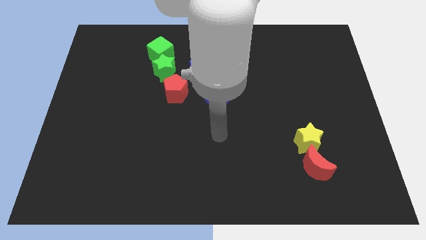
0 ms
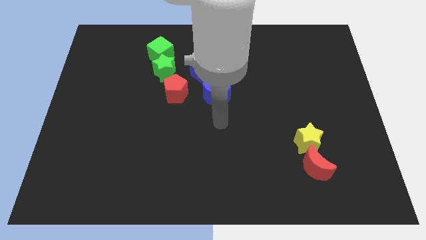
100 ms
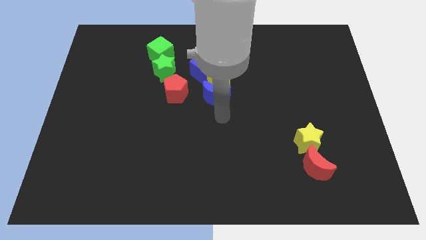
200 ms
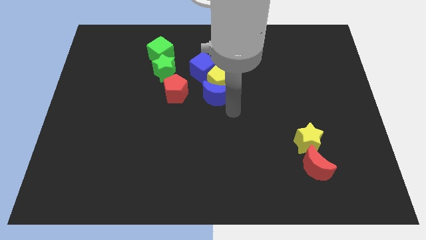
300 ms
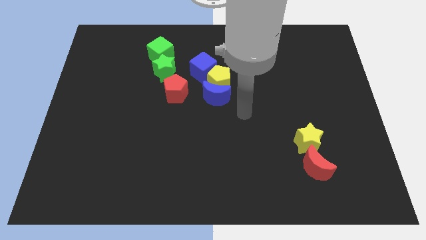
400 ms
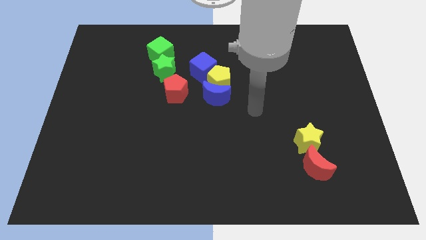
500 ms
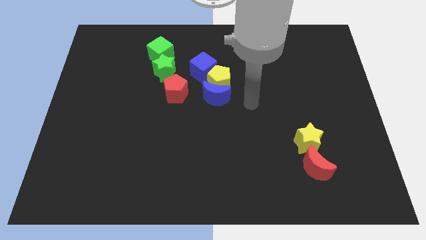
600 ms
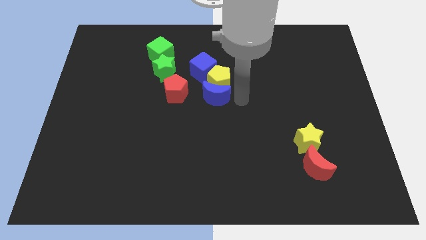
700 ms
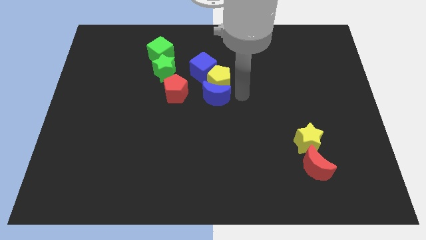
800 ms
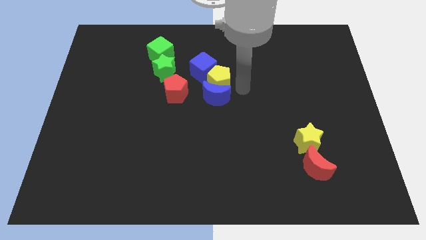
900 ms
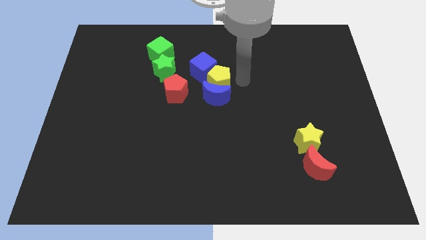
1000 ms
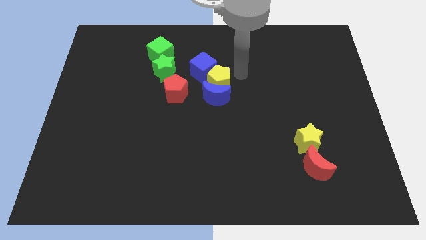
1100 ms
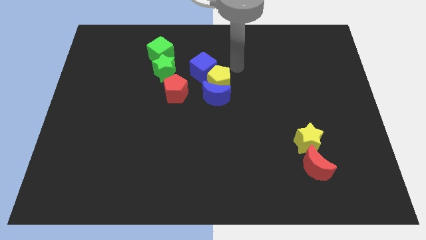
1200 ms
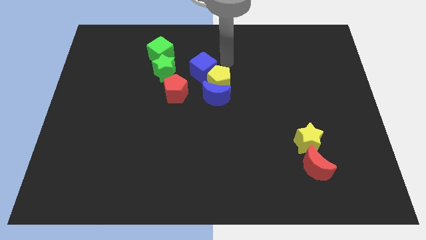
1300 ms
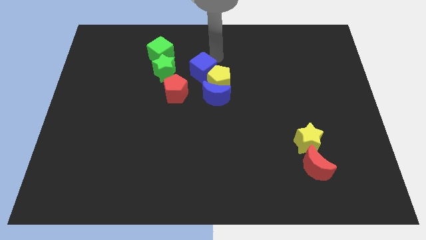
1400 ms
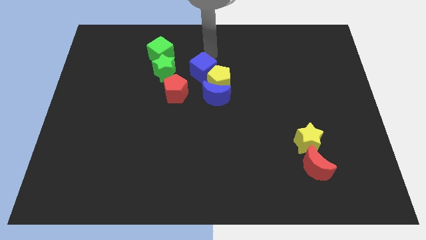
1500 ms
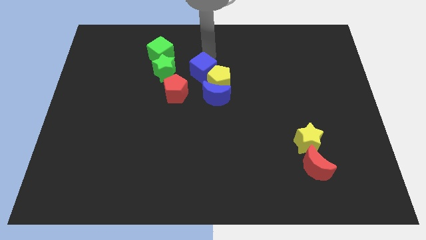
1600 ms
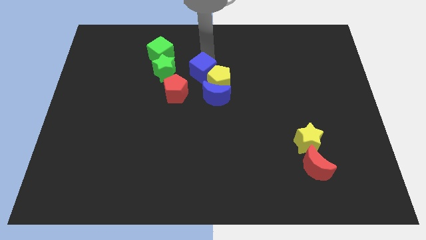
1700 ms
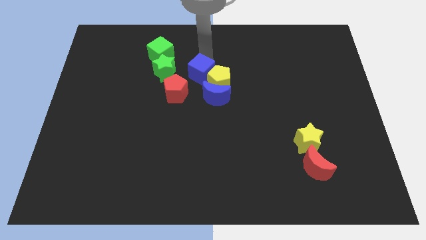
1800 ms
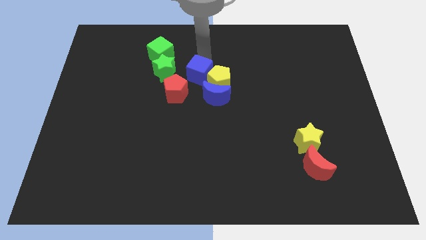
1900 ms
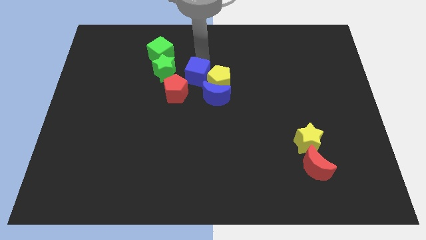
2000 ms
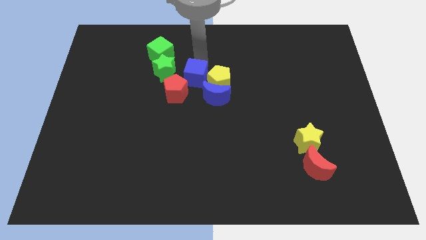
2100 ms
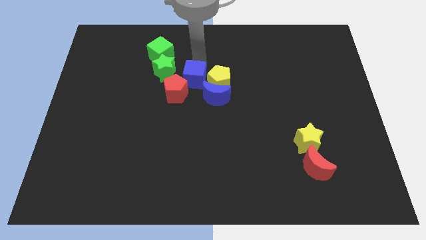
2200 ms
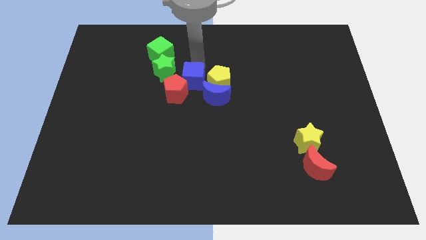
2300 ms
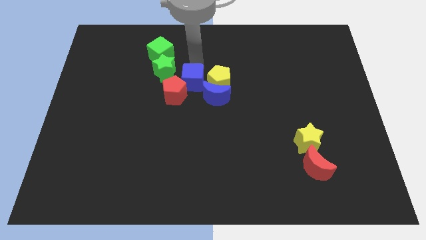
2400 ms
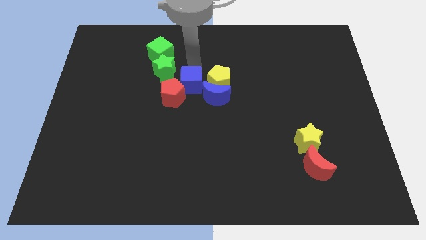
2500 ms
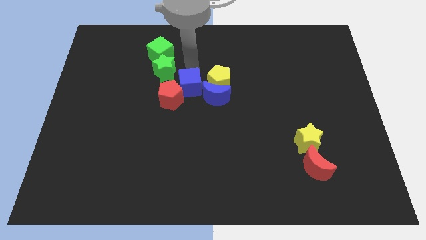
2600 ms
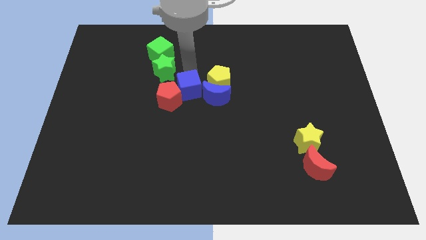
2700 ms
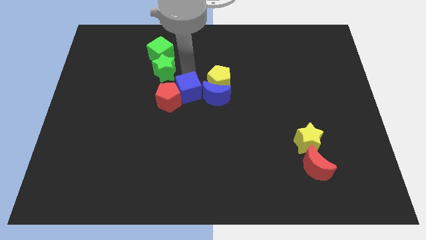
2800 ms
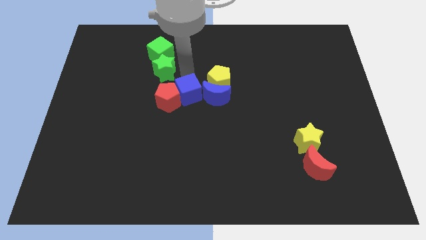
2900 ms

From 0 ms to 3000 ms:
move the blue cube downwards a little bit

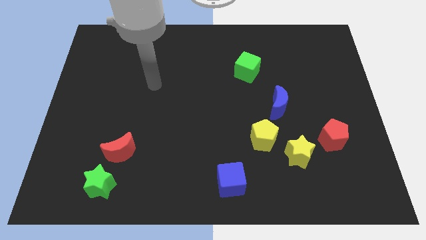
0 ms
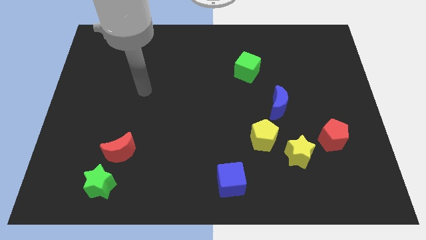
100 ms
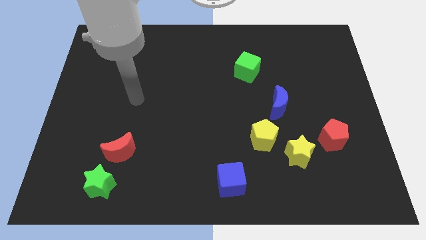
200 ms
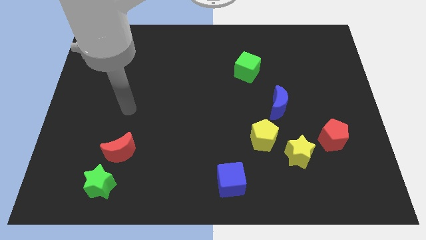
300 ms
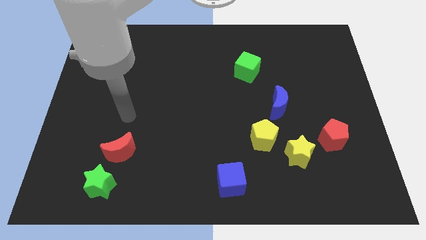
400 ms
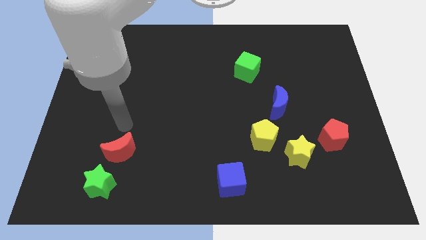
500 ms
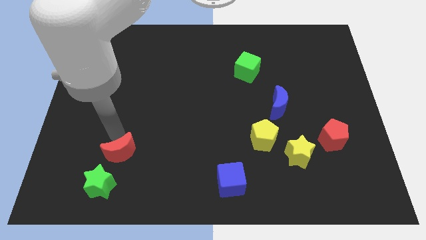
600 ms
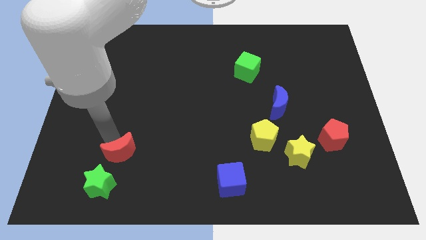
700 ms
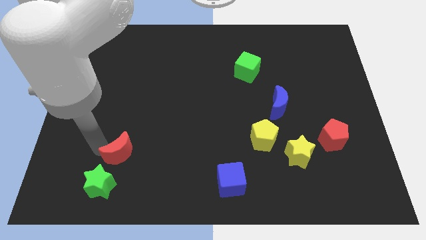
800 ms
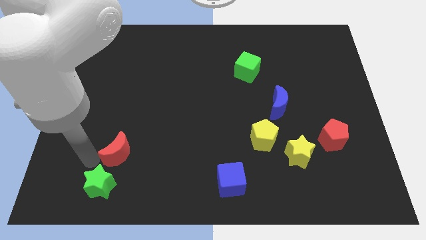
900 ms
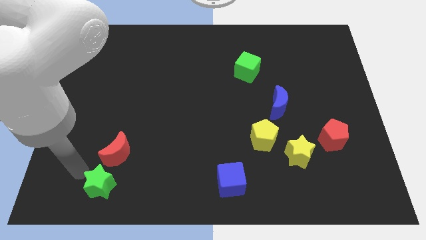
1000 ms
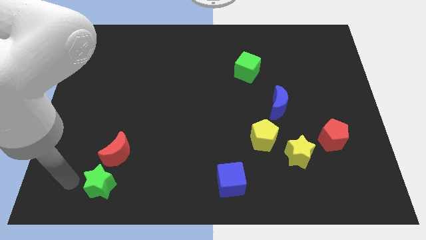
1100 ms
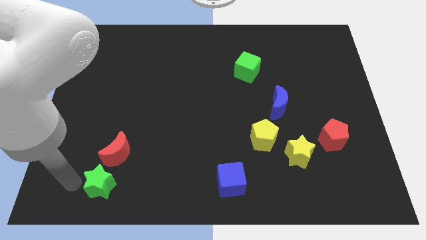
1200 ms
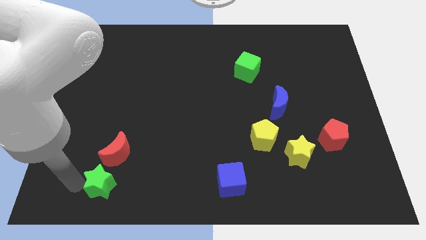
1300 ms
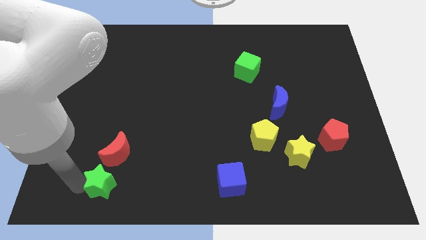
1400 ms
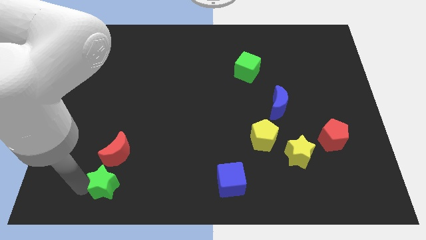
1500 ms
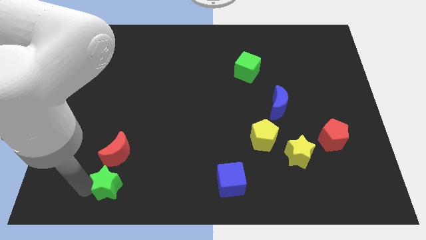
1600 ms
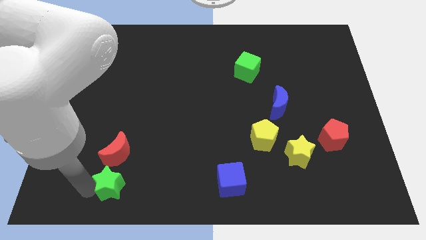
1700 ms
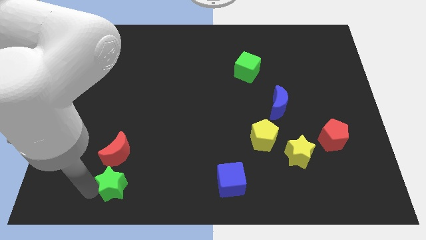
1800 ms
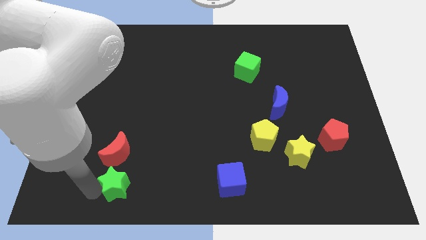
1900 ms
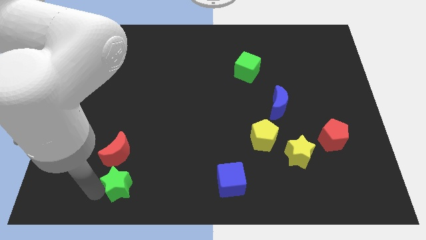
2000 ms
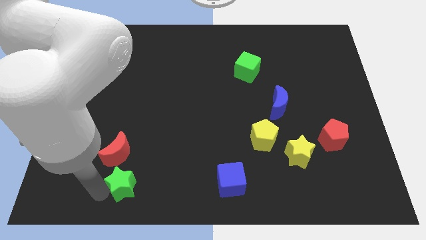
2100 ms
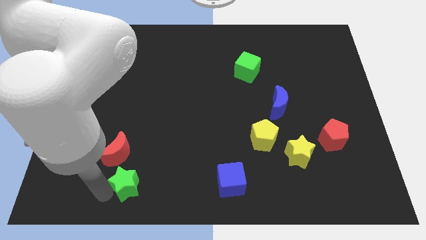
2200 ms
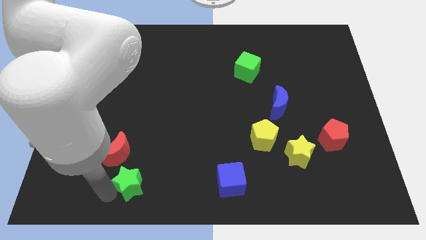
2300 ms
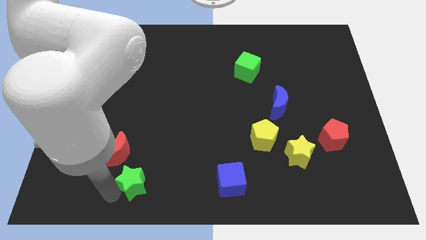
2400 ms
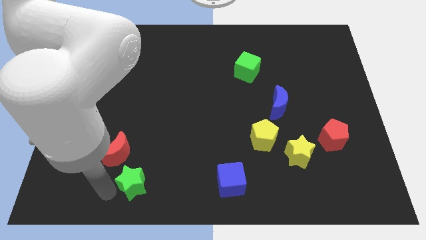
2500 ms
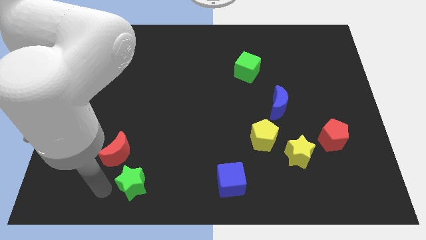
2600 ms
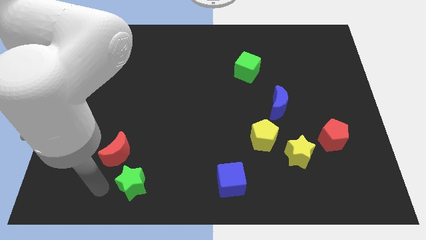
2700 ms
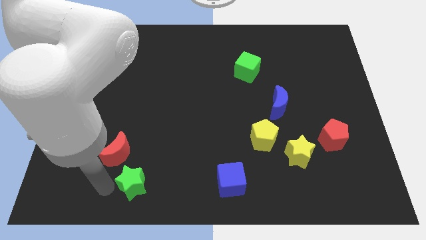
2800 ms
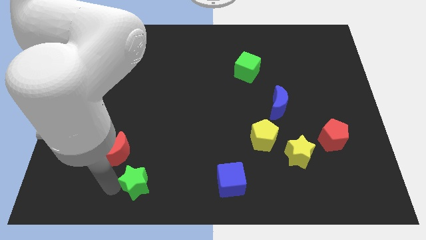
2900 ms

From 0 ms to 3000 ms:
slightly push the green star to the right

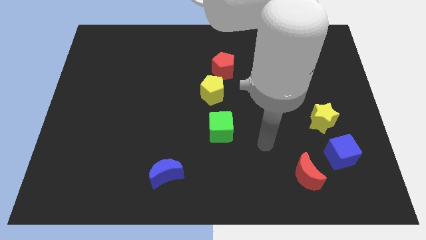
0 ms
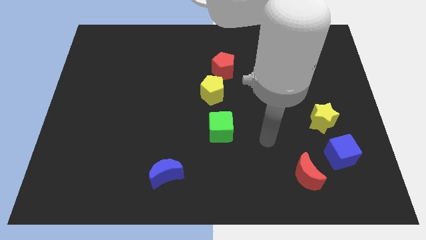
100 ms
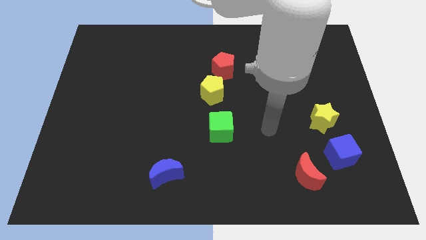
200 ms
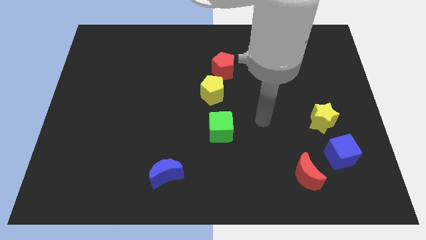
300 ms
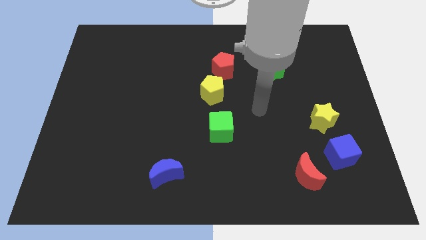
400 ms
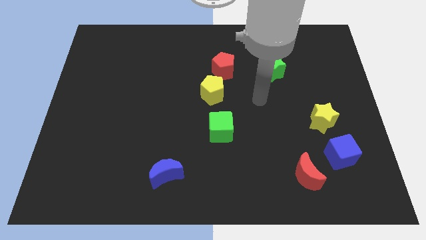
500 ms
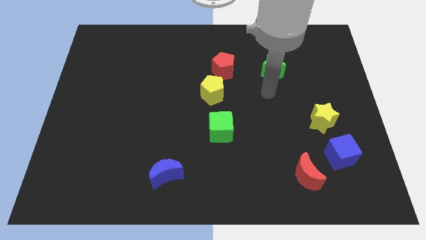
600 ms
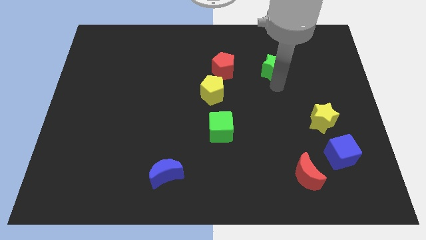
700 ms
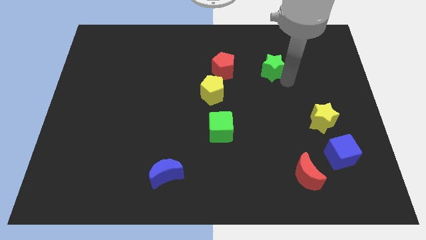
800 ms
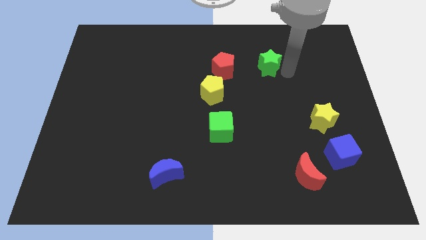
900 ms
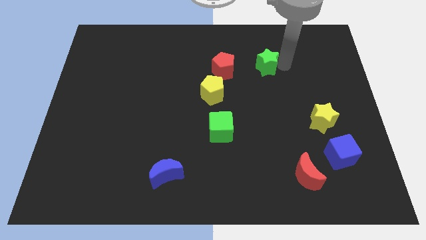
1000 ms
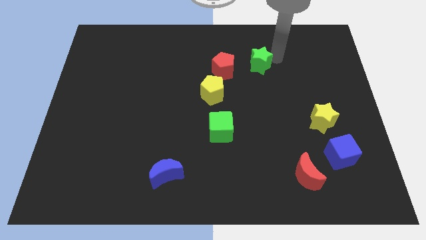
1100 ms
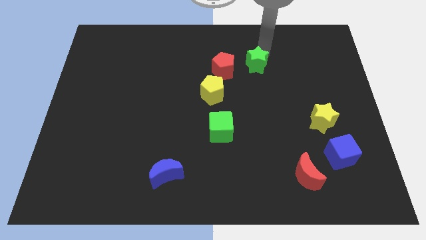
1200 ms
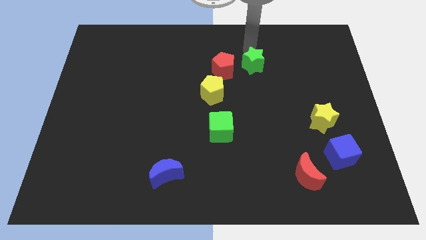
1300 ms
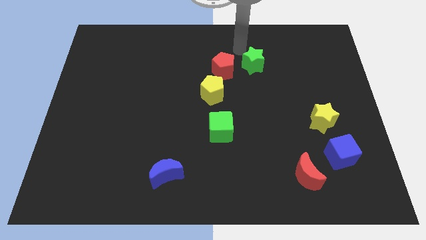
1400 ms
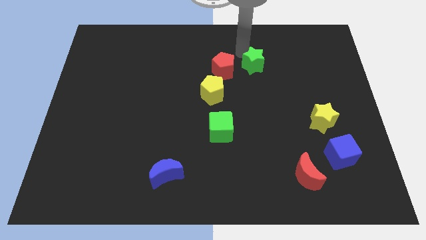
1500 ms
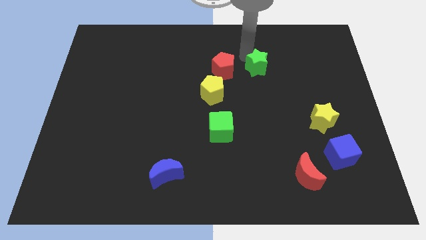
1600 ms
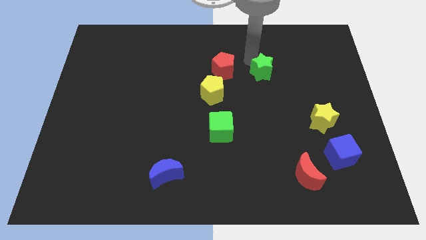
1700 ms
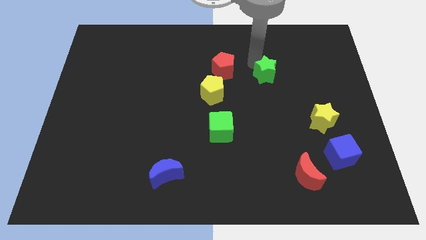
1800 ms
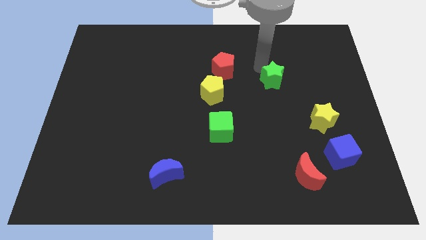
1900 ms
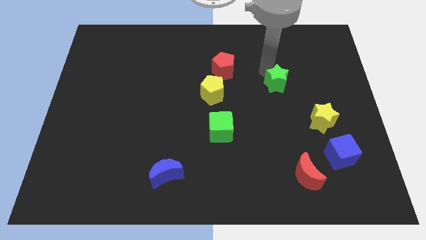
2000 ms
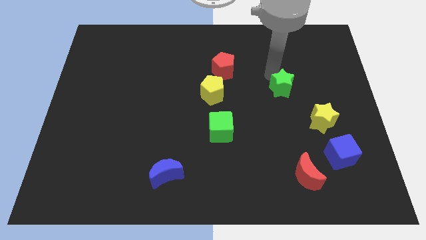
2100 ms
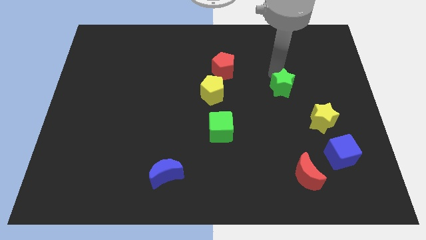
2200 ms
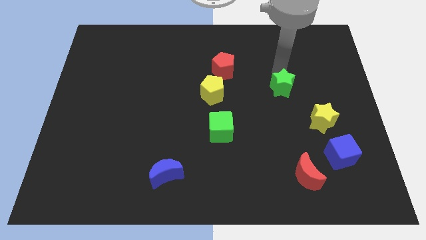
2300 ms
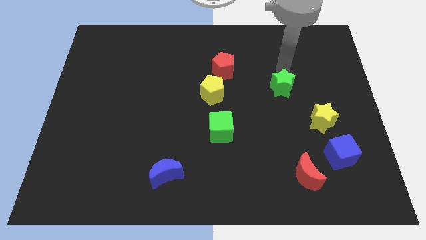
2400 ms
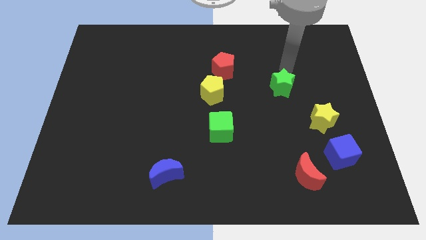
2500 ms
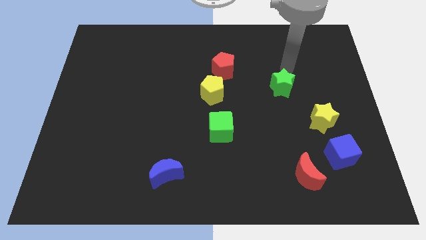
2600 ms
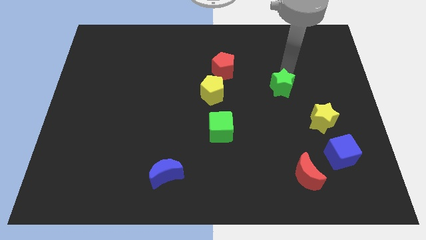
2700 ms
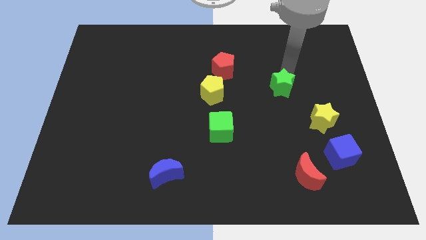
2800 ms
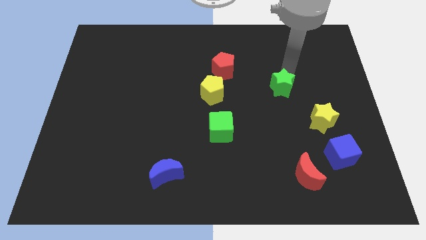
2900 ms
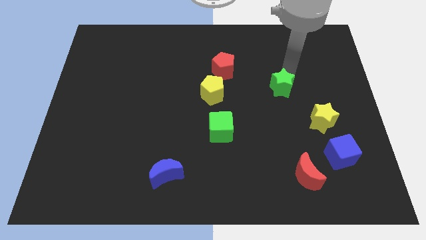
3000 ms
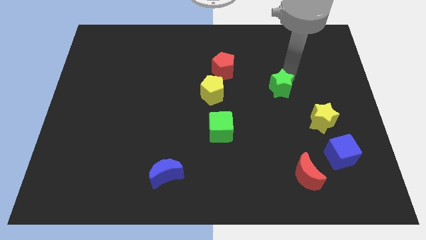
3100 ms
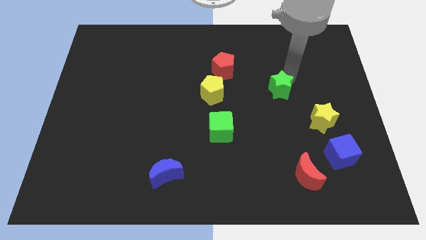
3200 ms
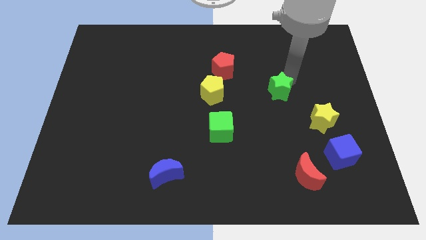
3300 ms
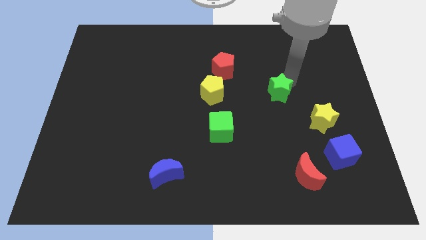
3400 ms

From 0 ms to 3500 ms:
push the green star downwards a bit
